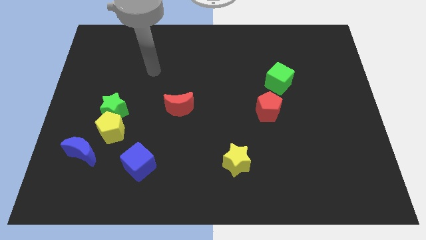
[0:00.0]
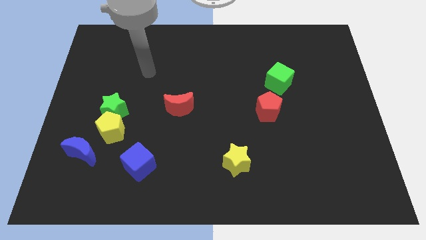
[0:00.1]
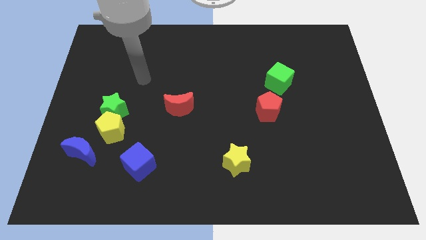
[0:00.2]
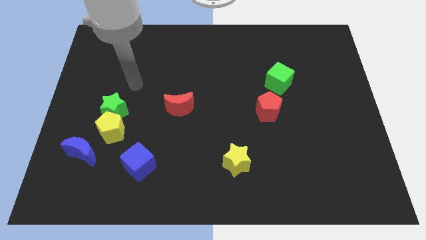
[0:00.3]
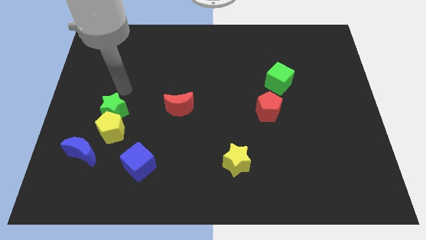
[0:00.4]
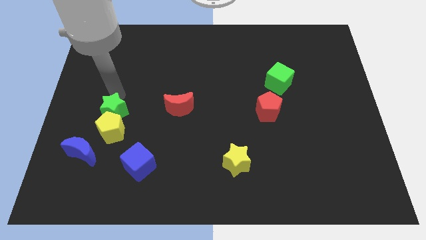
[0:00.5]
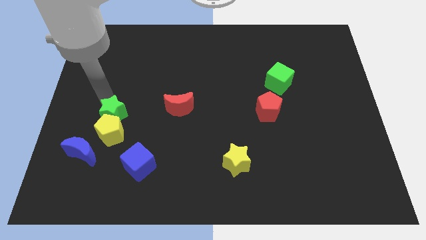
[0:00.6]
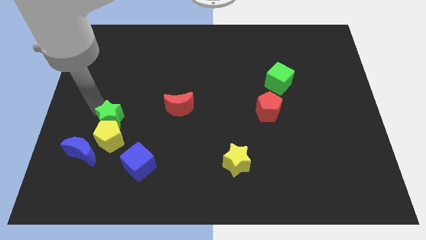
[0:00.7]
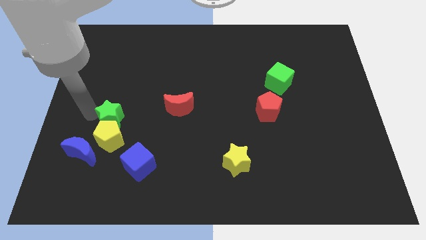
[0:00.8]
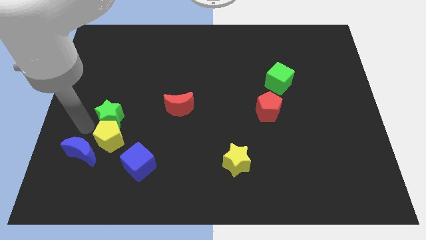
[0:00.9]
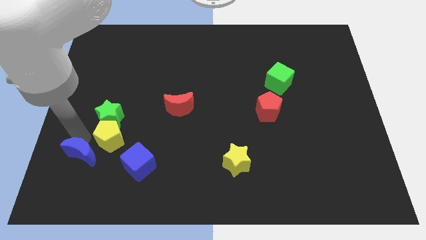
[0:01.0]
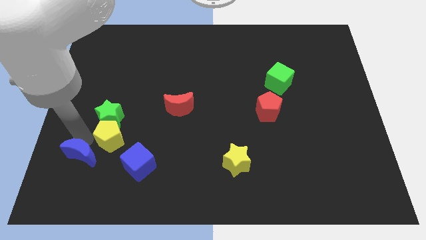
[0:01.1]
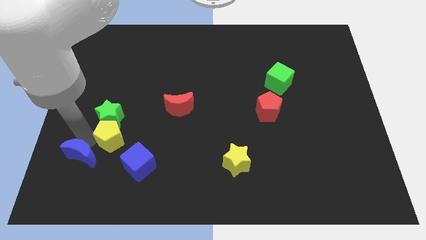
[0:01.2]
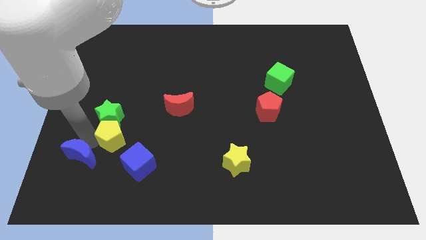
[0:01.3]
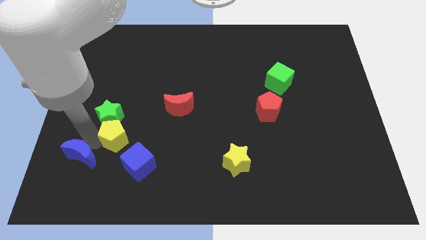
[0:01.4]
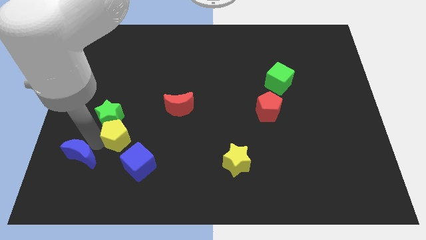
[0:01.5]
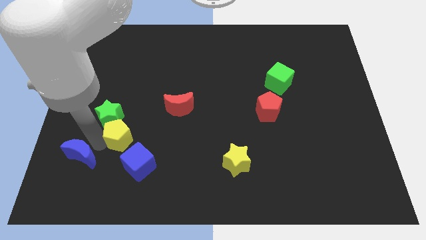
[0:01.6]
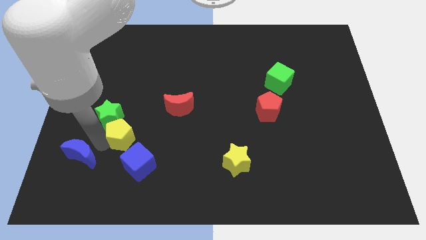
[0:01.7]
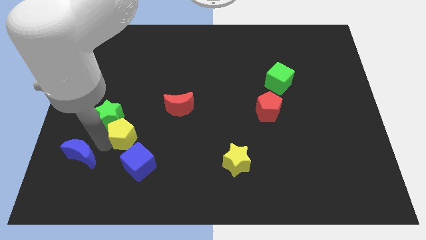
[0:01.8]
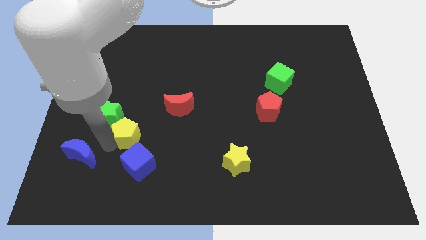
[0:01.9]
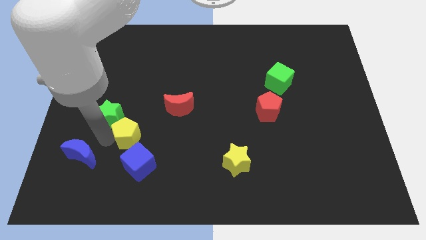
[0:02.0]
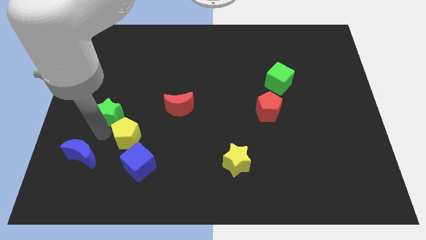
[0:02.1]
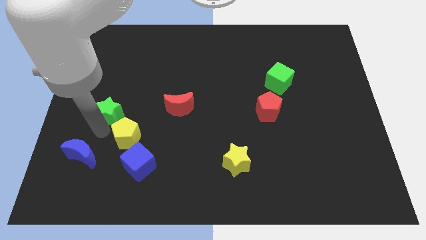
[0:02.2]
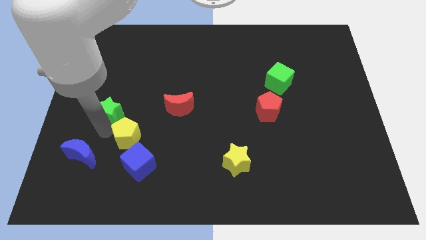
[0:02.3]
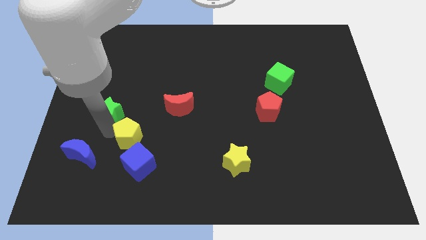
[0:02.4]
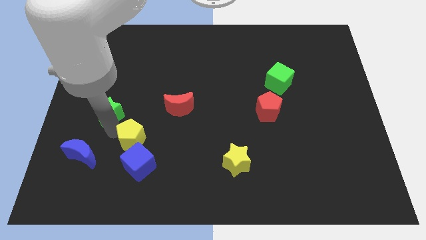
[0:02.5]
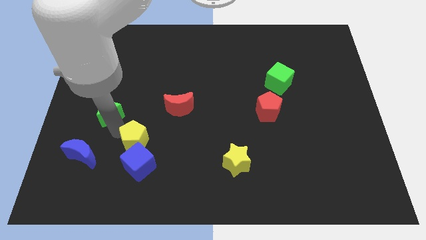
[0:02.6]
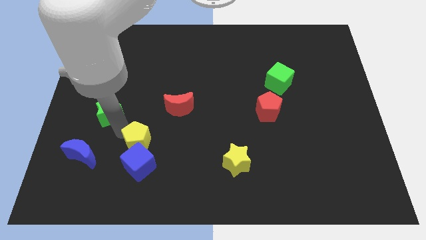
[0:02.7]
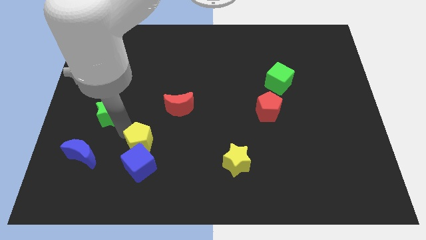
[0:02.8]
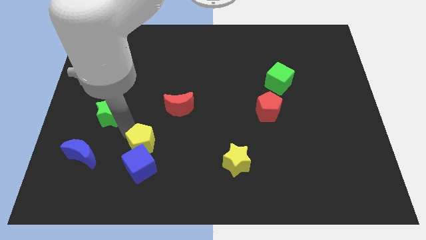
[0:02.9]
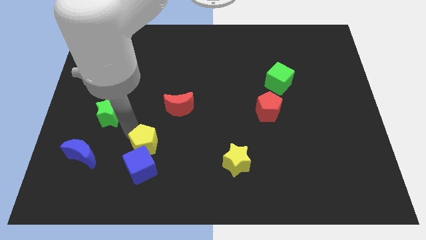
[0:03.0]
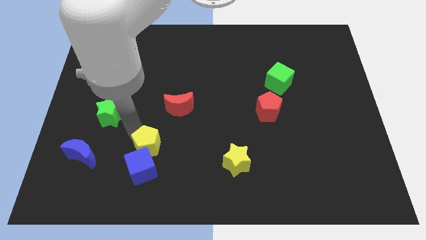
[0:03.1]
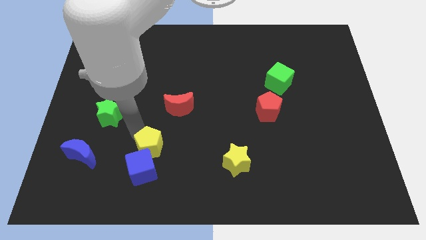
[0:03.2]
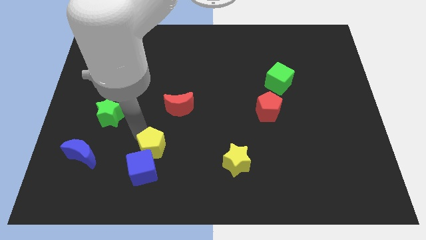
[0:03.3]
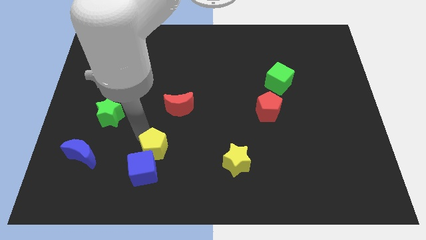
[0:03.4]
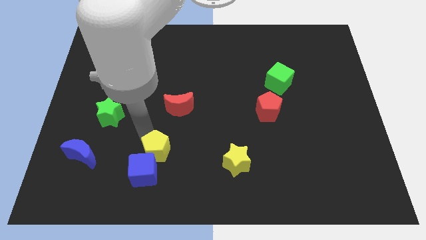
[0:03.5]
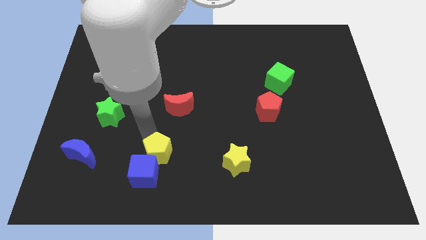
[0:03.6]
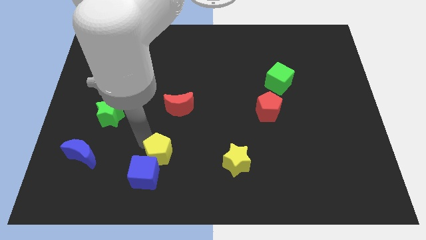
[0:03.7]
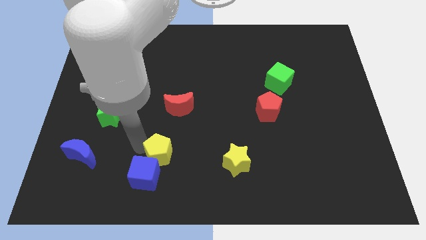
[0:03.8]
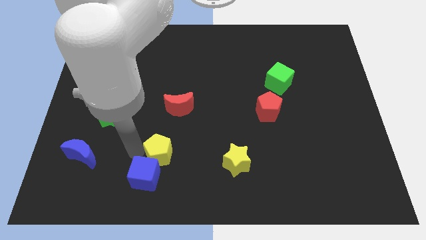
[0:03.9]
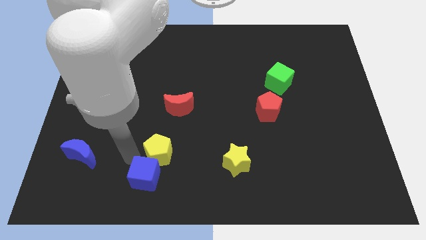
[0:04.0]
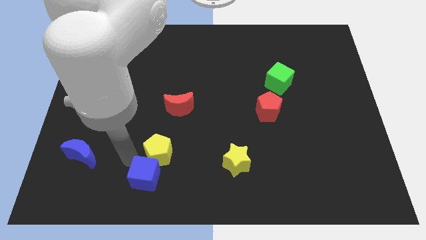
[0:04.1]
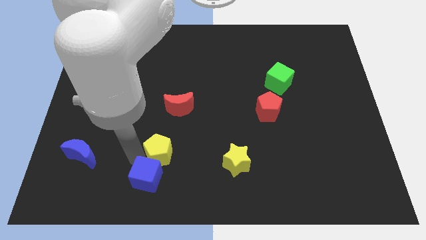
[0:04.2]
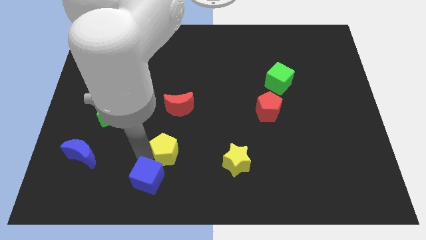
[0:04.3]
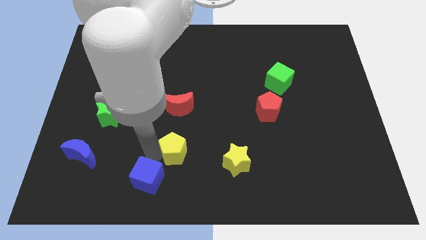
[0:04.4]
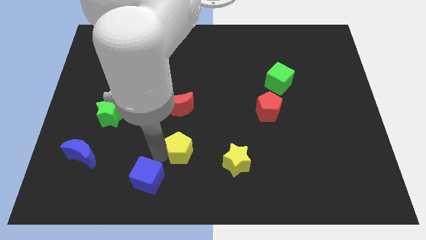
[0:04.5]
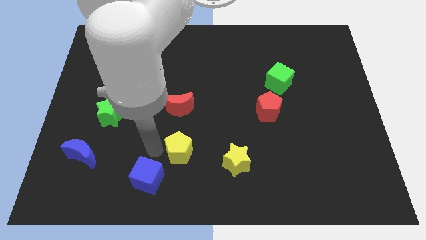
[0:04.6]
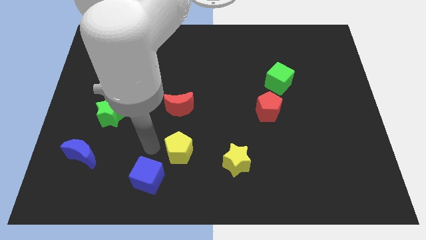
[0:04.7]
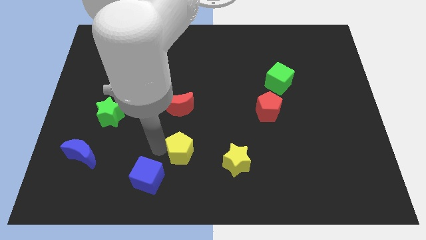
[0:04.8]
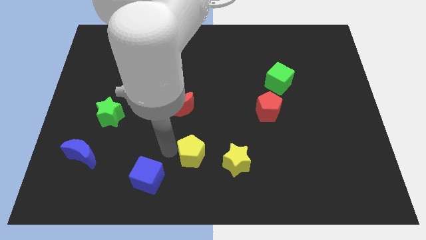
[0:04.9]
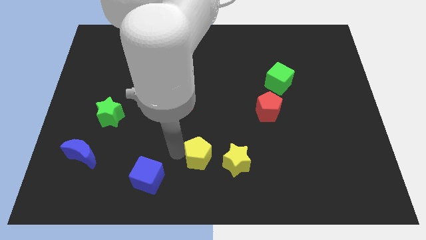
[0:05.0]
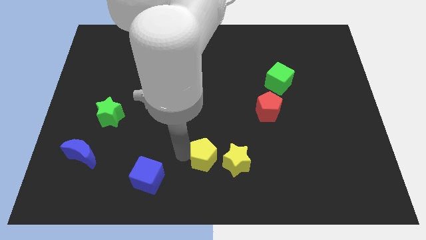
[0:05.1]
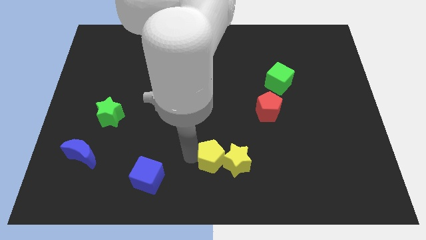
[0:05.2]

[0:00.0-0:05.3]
put the yellow pentagon close to the yellow star

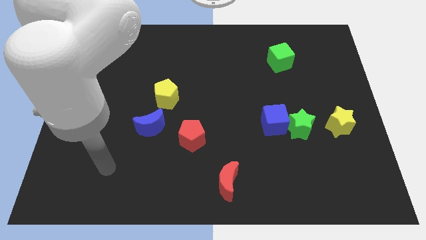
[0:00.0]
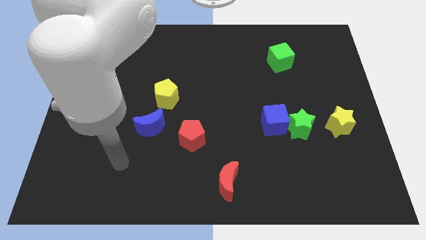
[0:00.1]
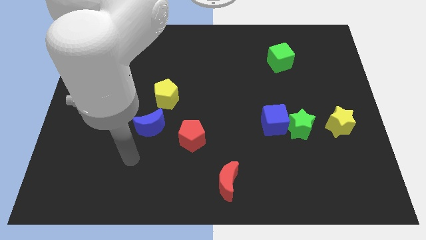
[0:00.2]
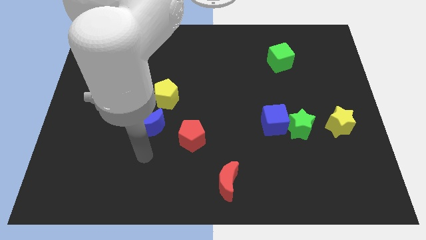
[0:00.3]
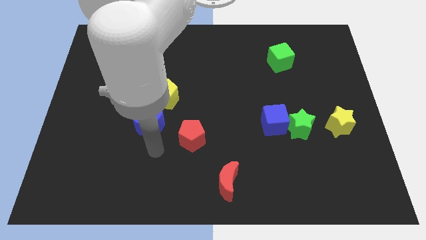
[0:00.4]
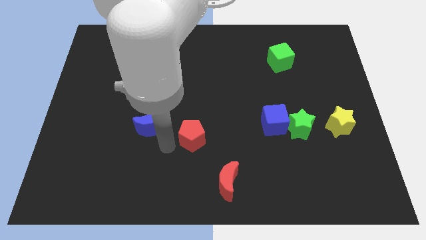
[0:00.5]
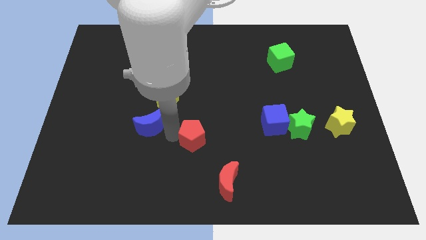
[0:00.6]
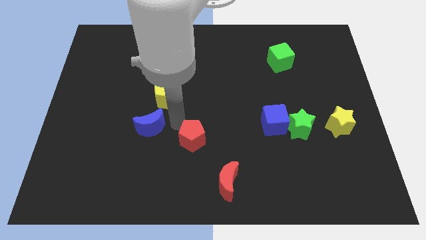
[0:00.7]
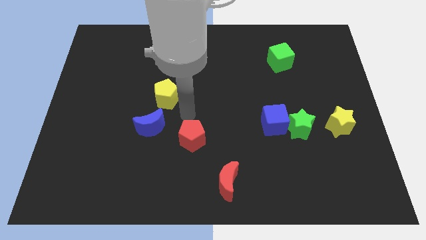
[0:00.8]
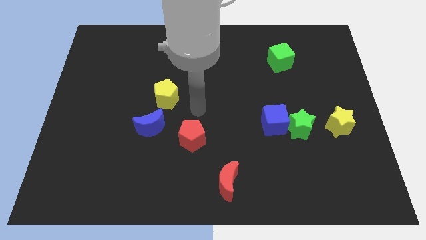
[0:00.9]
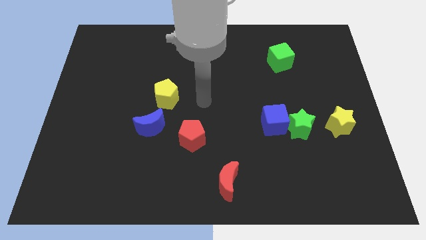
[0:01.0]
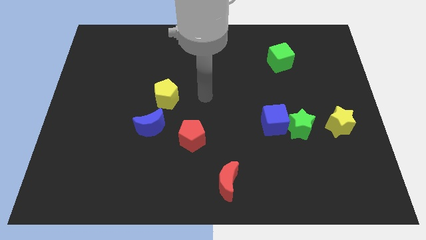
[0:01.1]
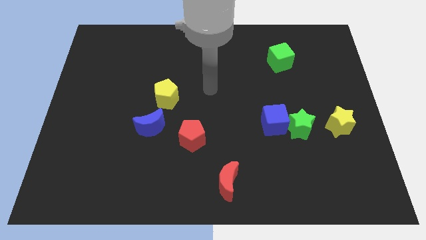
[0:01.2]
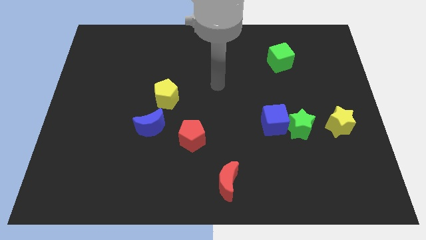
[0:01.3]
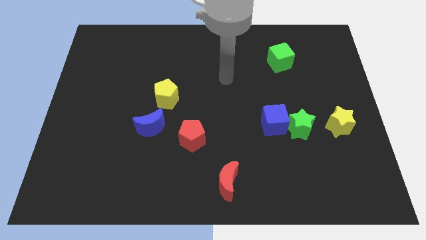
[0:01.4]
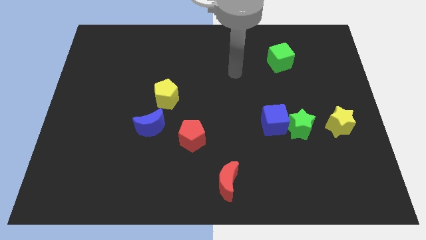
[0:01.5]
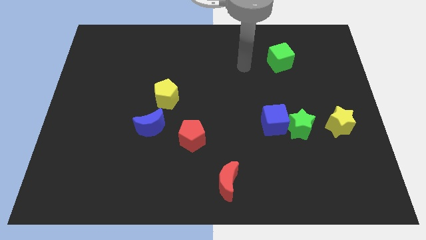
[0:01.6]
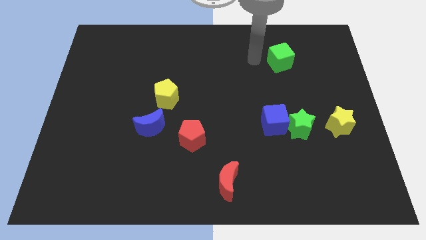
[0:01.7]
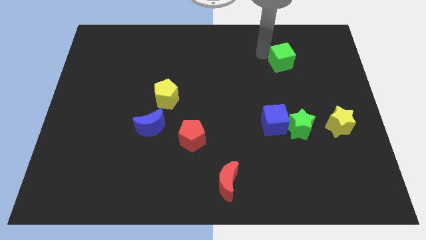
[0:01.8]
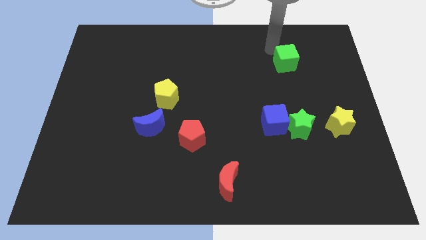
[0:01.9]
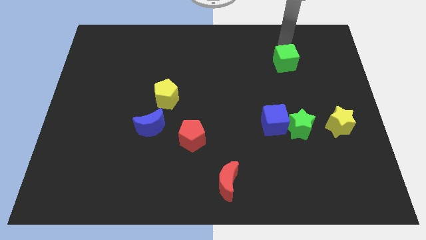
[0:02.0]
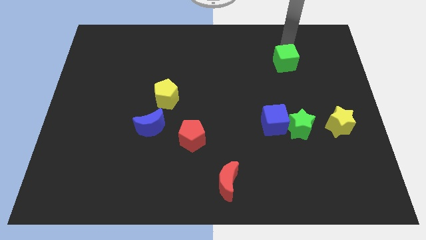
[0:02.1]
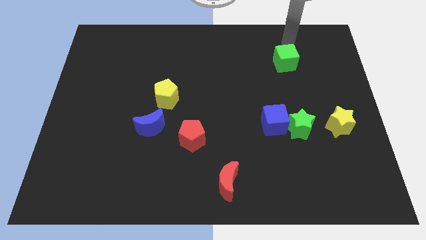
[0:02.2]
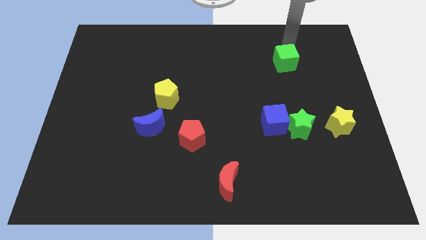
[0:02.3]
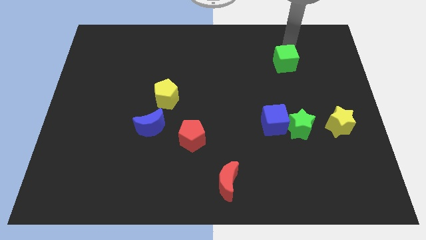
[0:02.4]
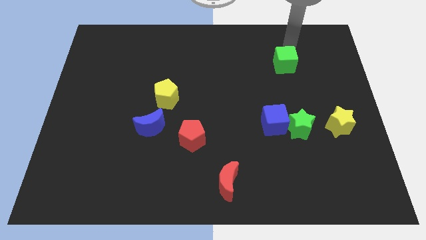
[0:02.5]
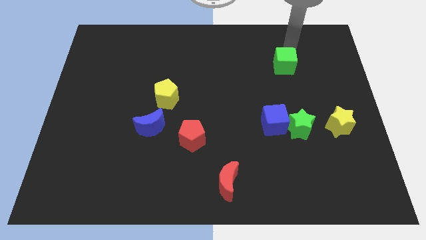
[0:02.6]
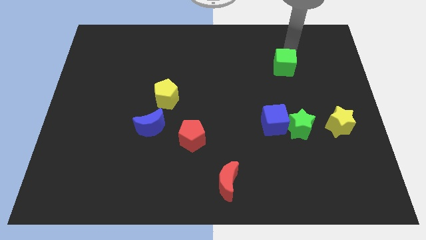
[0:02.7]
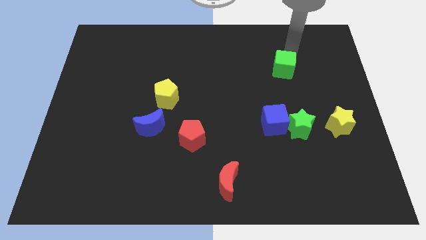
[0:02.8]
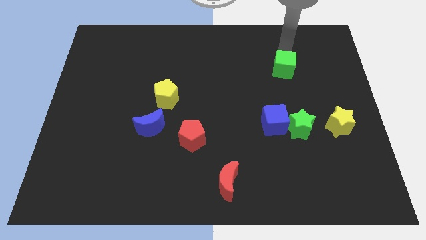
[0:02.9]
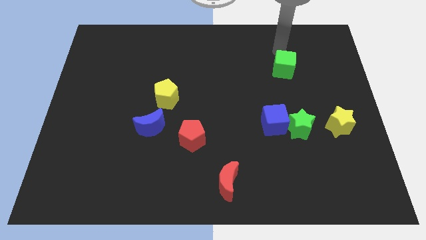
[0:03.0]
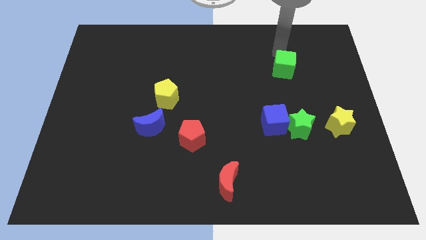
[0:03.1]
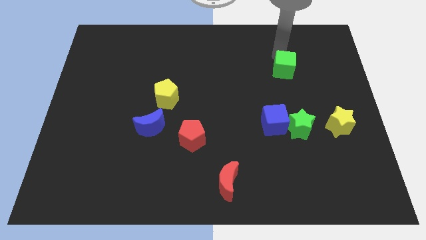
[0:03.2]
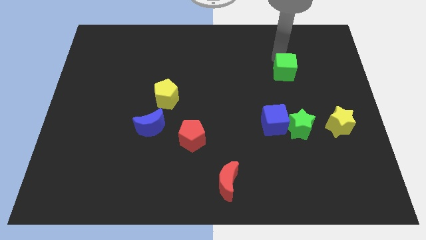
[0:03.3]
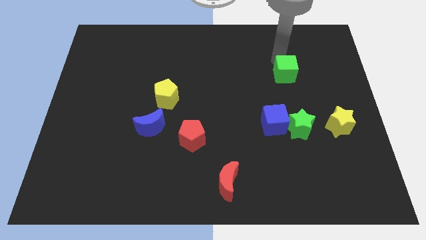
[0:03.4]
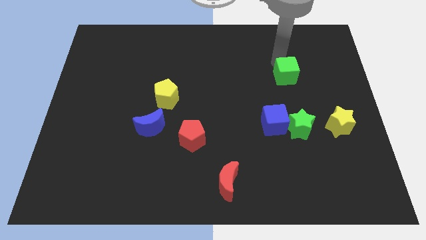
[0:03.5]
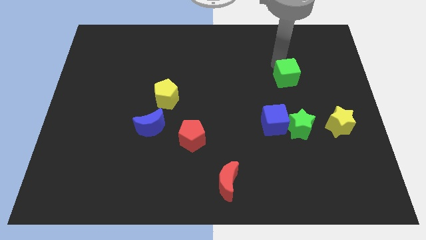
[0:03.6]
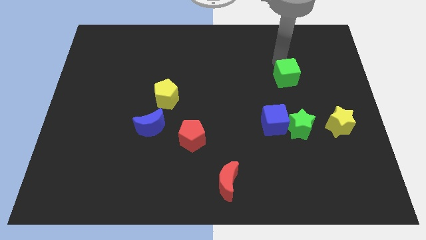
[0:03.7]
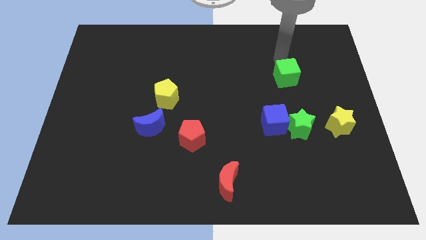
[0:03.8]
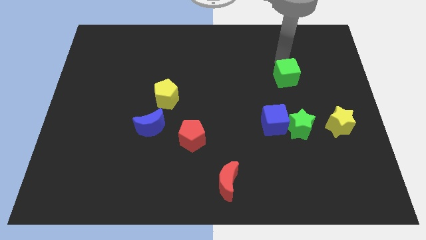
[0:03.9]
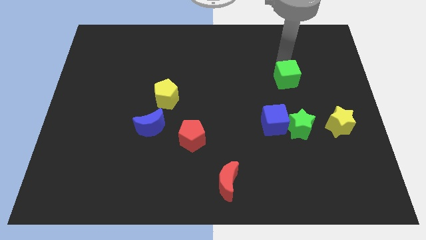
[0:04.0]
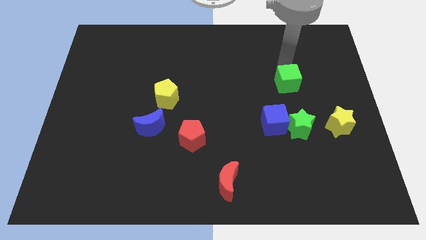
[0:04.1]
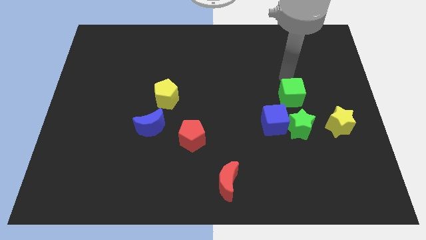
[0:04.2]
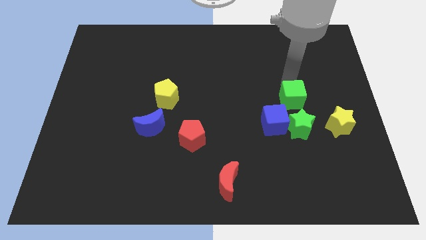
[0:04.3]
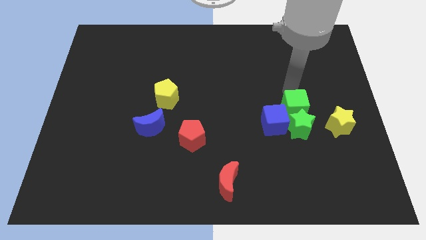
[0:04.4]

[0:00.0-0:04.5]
push the green cube close to the green star
